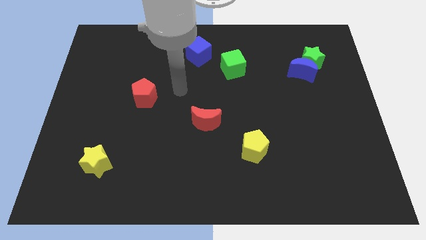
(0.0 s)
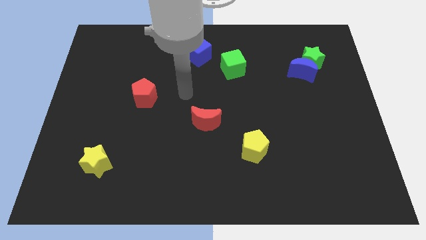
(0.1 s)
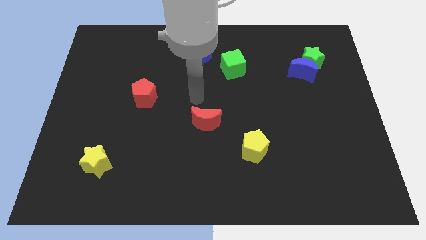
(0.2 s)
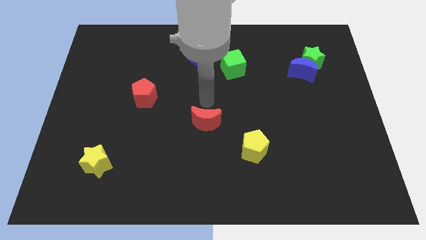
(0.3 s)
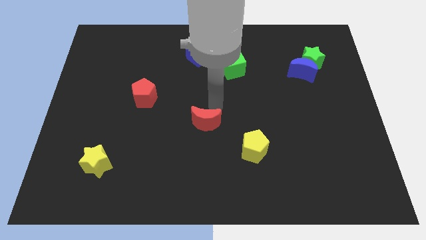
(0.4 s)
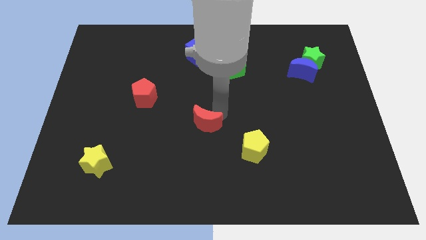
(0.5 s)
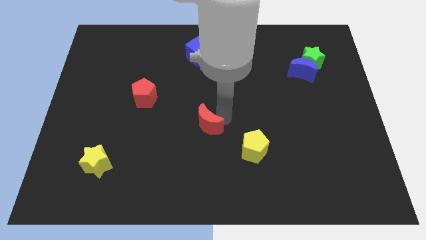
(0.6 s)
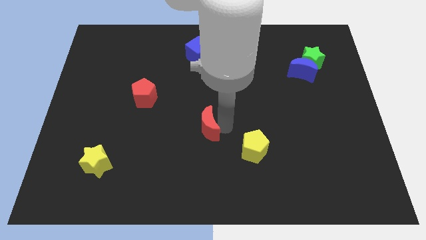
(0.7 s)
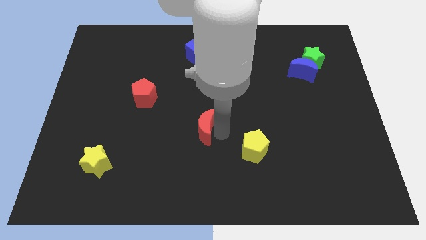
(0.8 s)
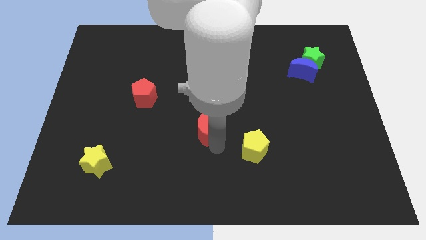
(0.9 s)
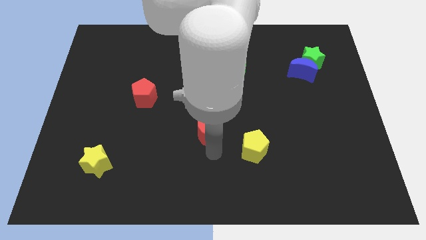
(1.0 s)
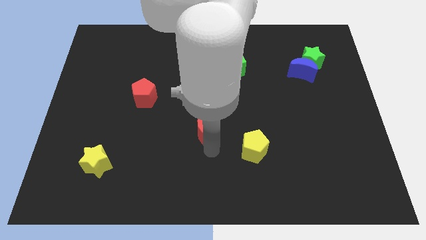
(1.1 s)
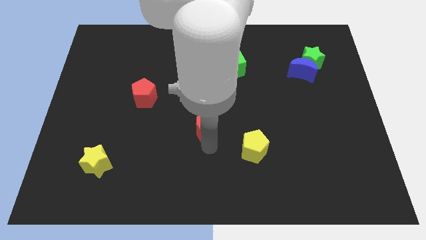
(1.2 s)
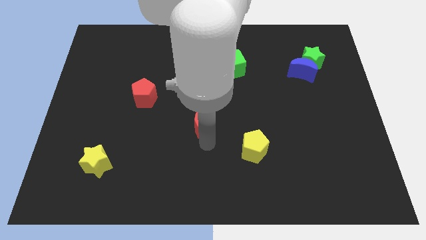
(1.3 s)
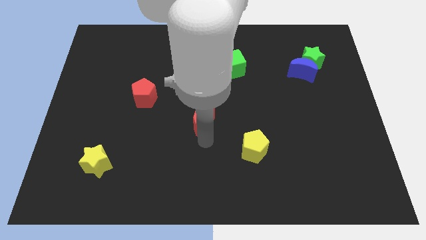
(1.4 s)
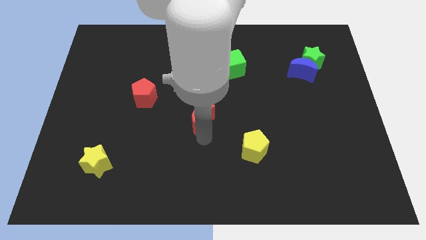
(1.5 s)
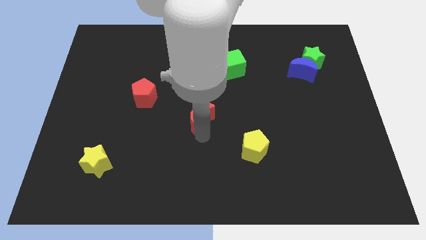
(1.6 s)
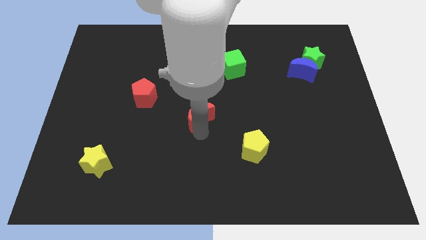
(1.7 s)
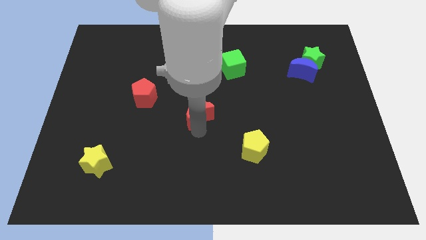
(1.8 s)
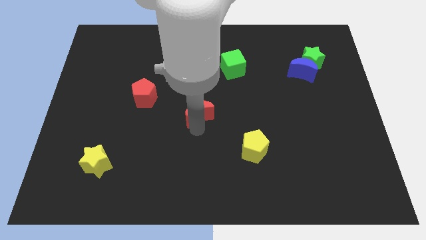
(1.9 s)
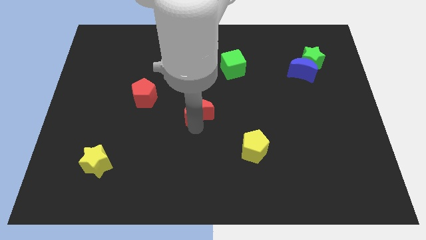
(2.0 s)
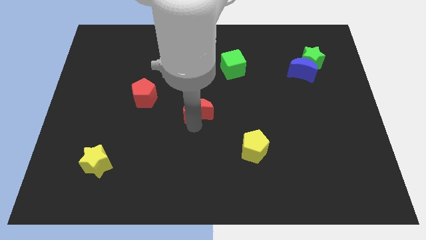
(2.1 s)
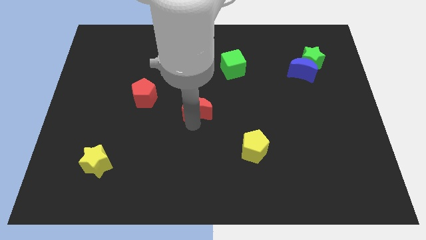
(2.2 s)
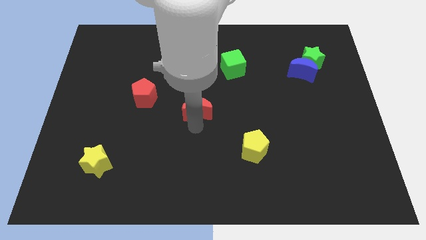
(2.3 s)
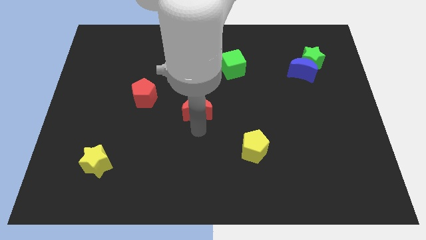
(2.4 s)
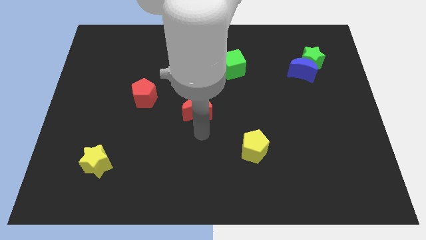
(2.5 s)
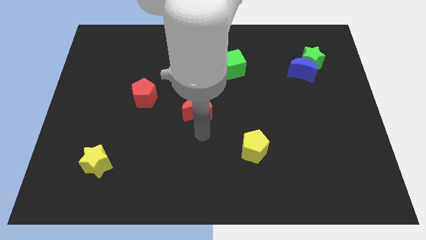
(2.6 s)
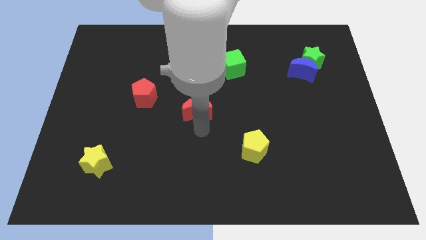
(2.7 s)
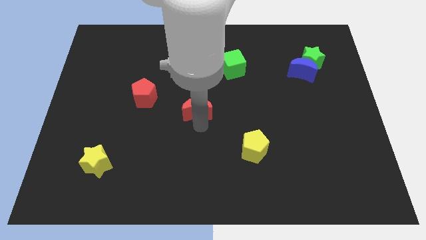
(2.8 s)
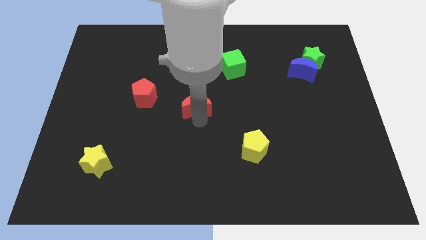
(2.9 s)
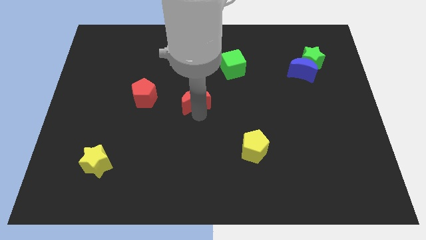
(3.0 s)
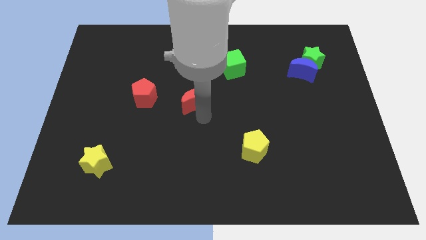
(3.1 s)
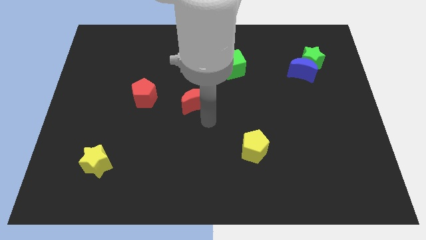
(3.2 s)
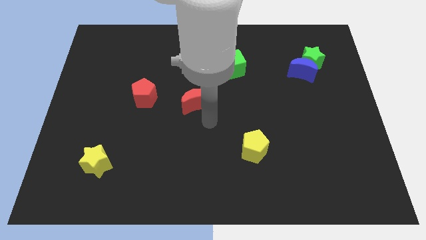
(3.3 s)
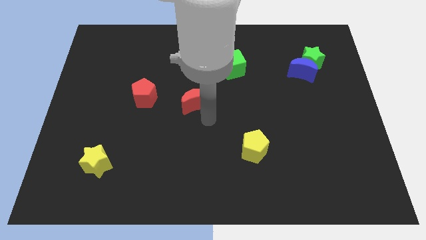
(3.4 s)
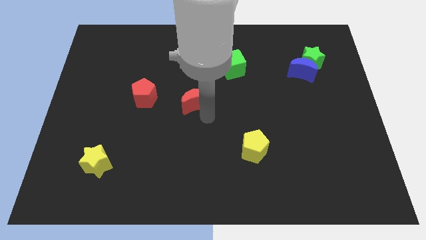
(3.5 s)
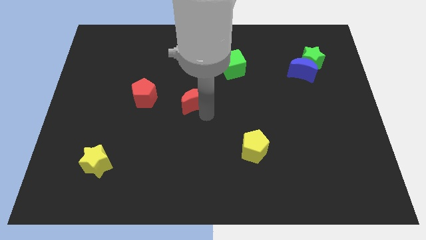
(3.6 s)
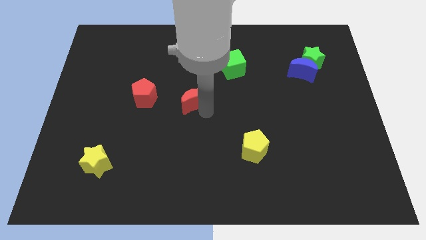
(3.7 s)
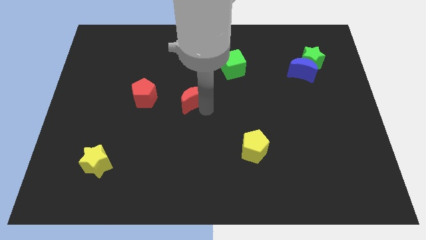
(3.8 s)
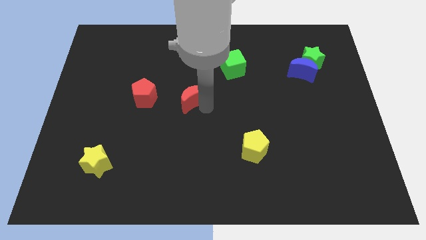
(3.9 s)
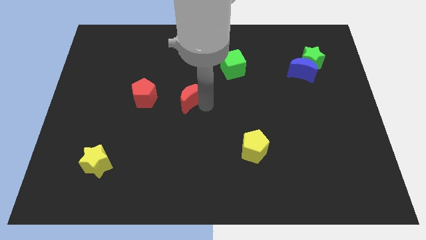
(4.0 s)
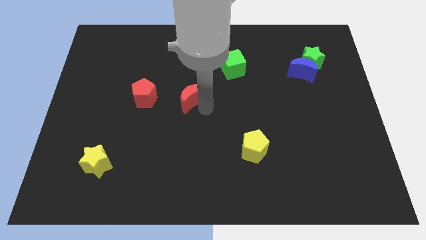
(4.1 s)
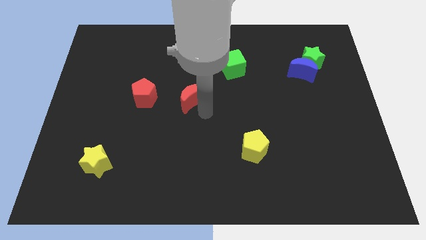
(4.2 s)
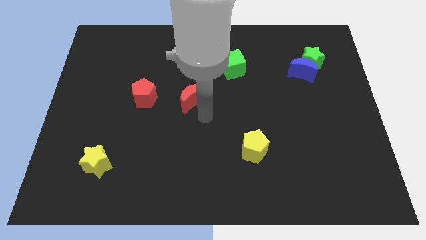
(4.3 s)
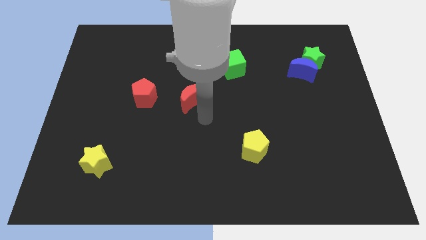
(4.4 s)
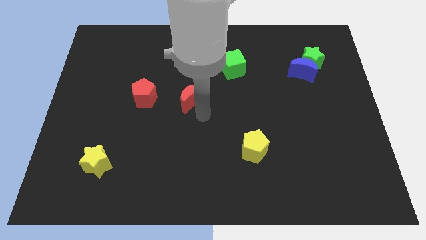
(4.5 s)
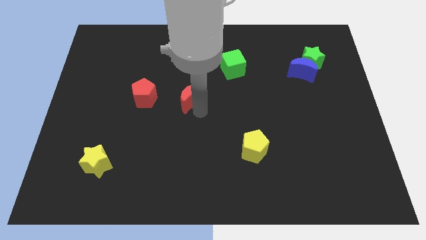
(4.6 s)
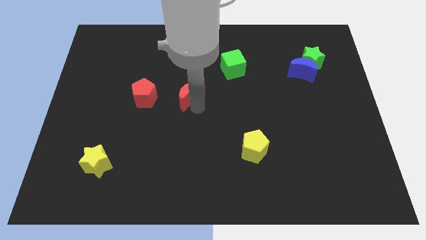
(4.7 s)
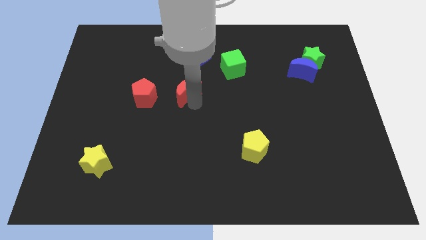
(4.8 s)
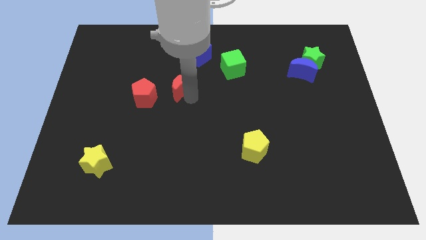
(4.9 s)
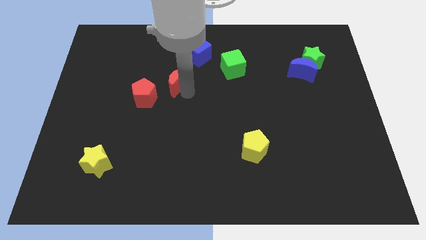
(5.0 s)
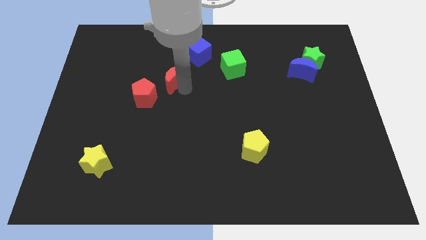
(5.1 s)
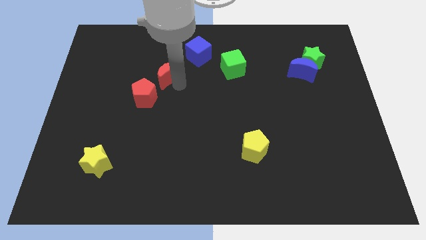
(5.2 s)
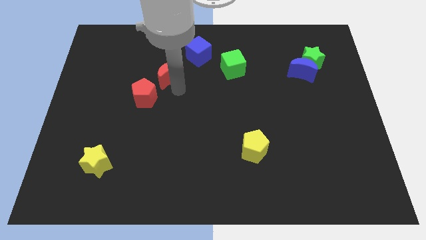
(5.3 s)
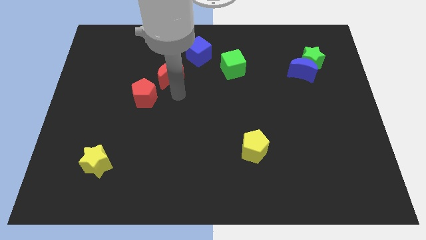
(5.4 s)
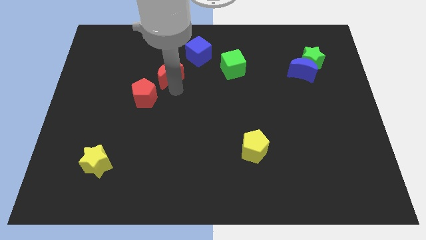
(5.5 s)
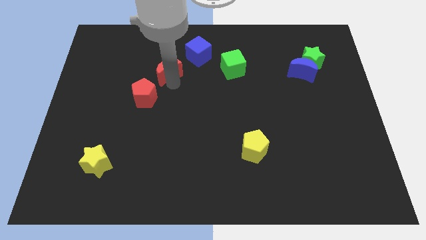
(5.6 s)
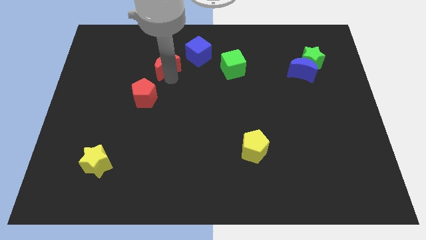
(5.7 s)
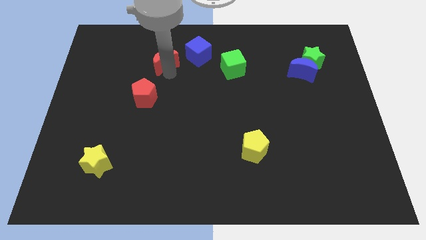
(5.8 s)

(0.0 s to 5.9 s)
move the red moon left of the blue cube
